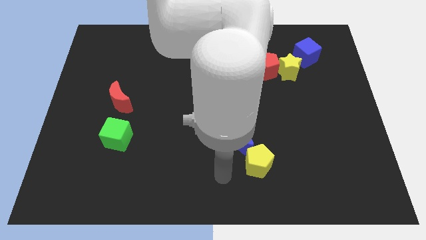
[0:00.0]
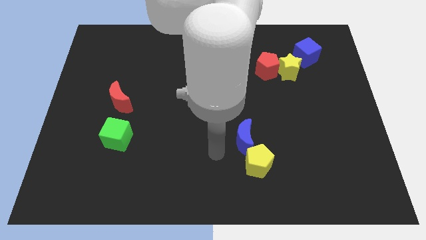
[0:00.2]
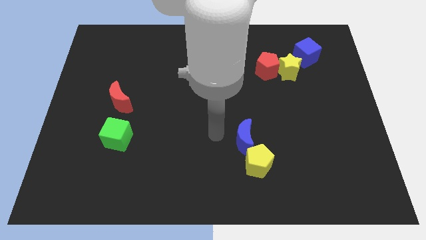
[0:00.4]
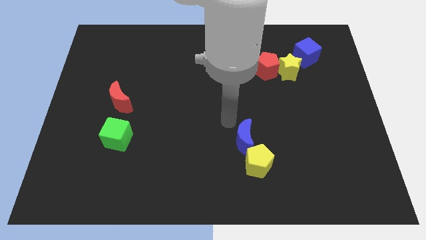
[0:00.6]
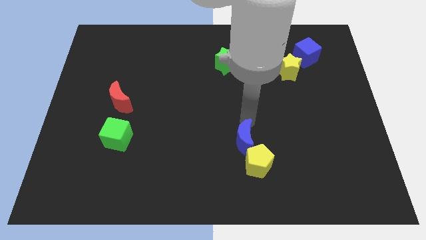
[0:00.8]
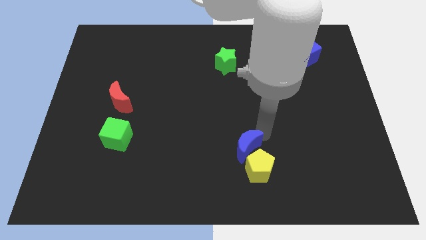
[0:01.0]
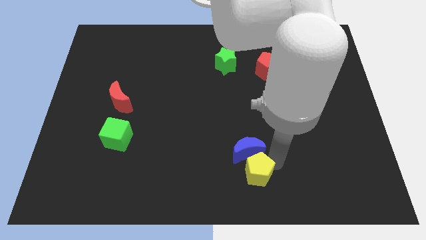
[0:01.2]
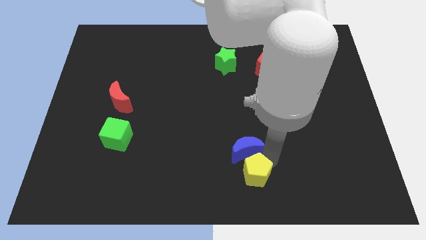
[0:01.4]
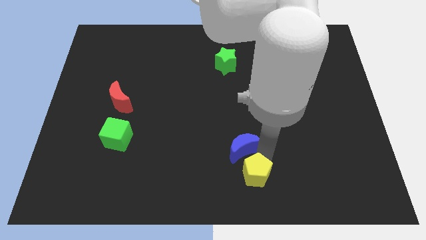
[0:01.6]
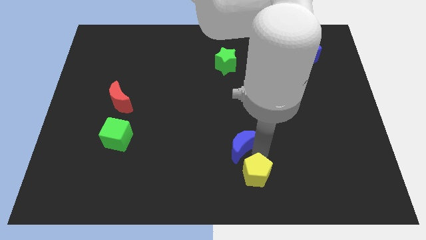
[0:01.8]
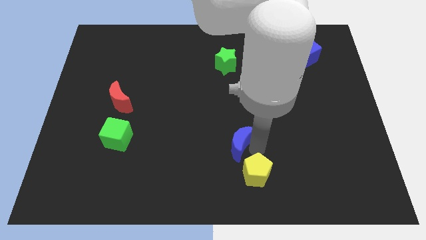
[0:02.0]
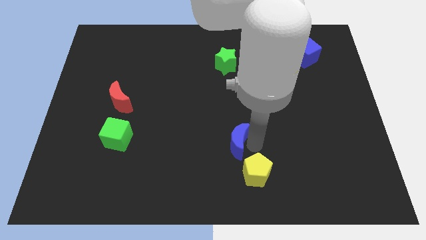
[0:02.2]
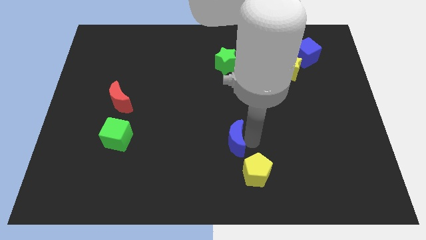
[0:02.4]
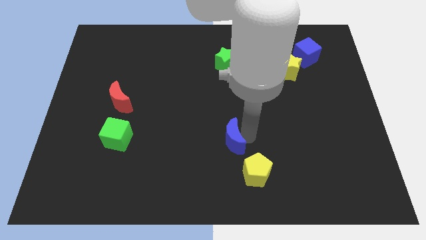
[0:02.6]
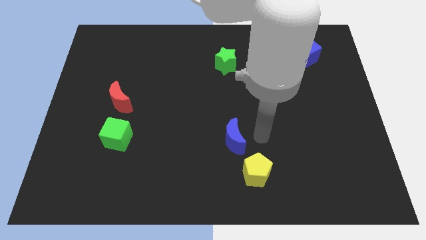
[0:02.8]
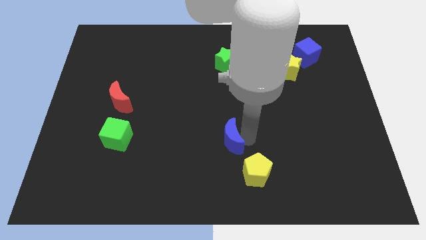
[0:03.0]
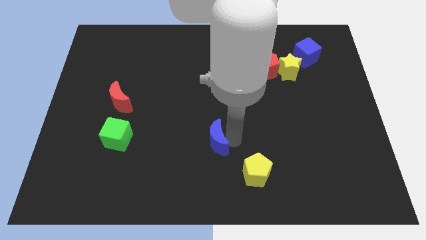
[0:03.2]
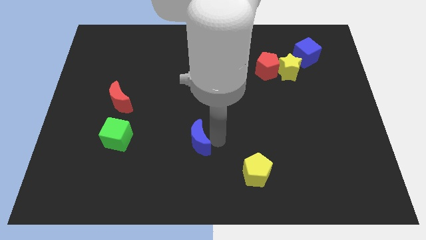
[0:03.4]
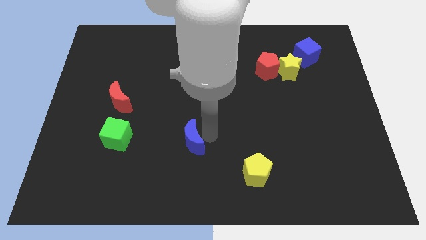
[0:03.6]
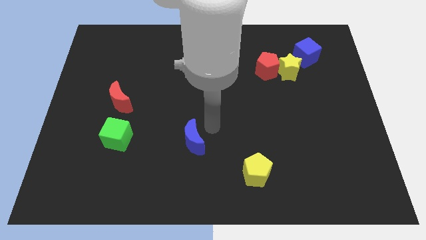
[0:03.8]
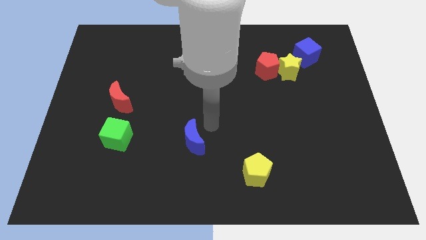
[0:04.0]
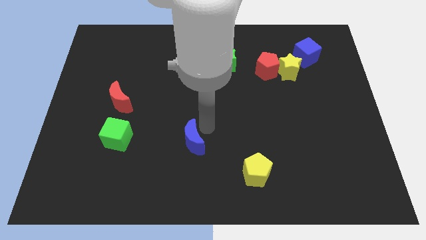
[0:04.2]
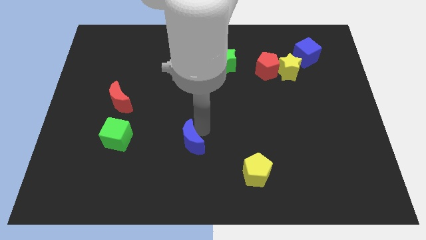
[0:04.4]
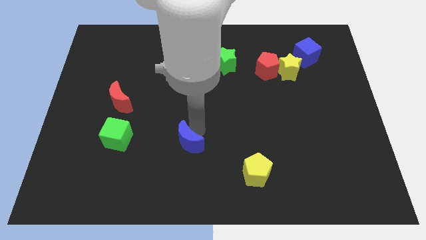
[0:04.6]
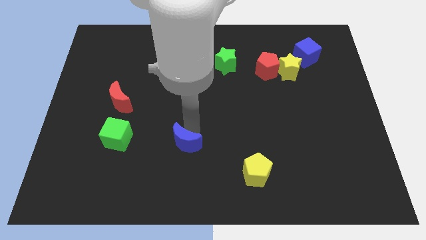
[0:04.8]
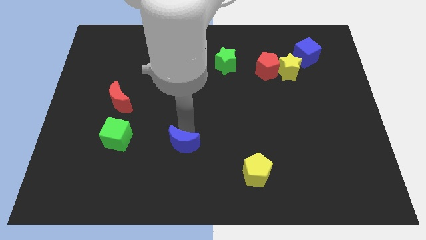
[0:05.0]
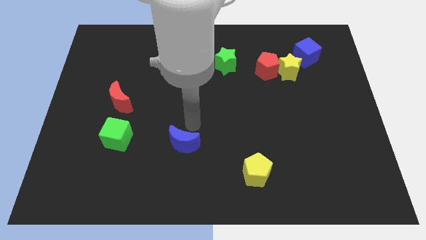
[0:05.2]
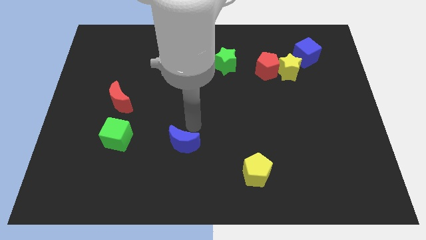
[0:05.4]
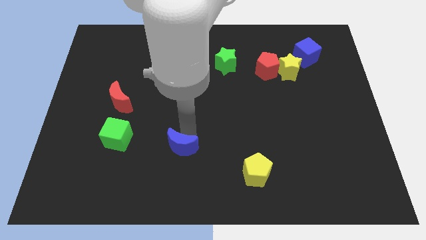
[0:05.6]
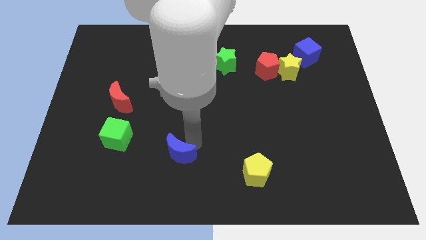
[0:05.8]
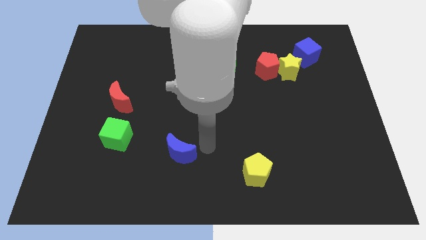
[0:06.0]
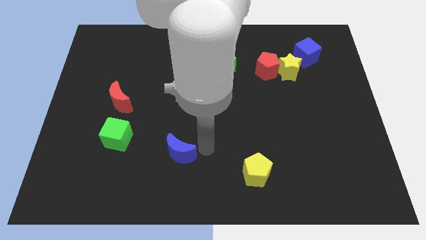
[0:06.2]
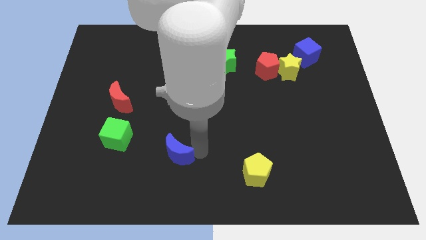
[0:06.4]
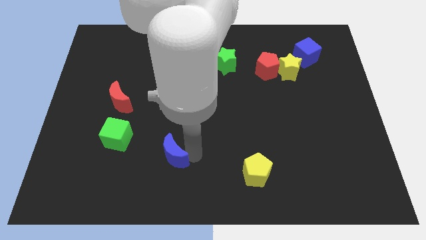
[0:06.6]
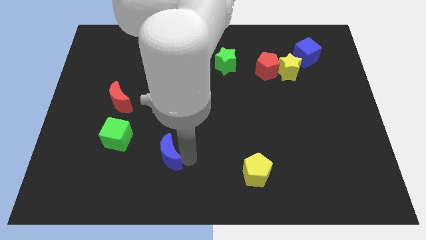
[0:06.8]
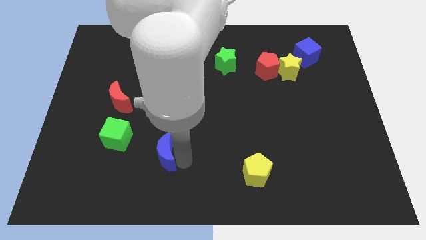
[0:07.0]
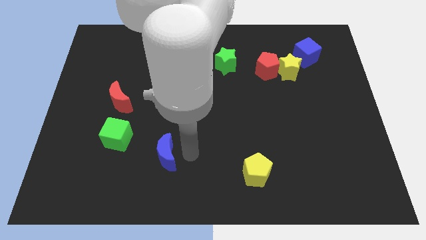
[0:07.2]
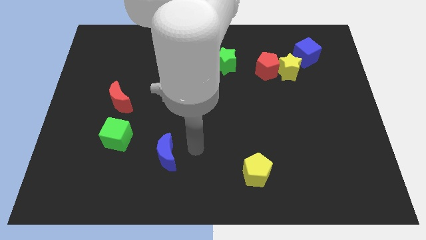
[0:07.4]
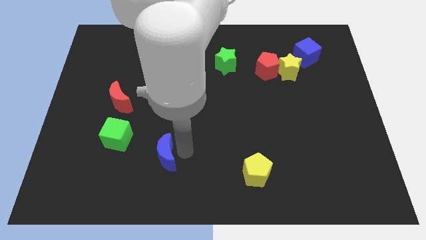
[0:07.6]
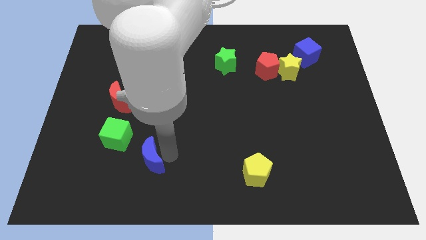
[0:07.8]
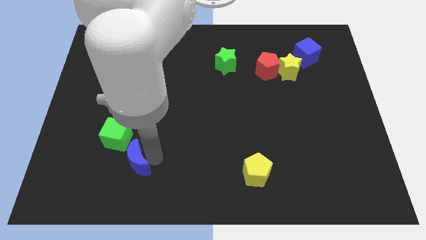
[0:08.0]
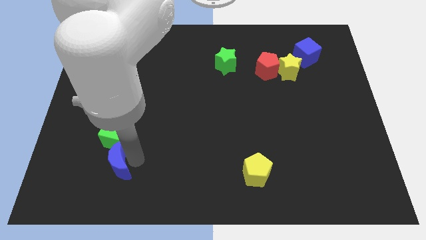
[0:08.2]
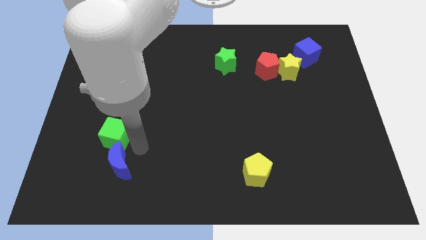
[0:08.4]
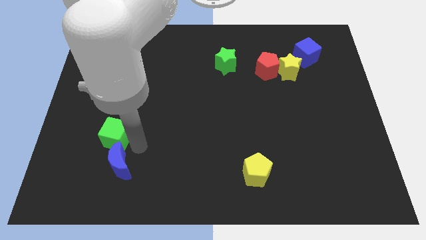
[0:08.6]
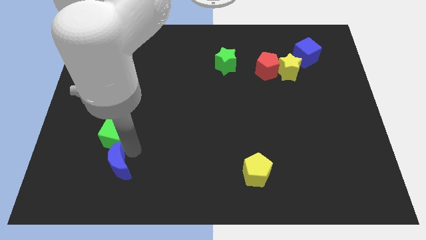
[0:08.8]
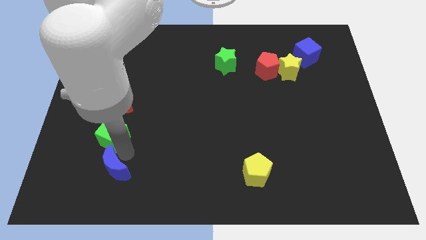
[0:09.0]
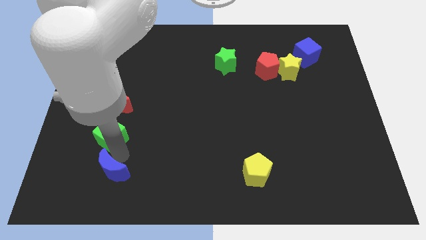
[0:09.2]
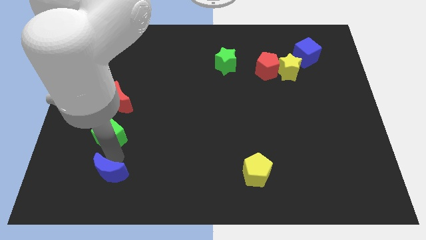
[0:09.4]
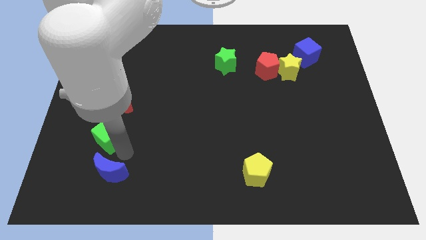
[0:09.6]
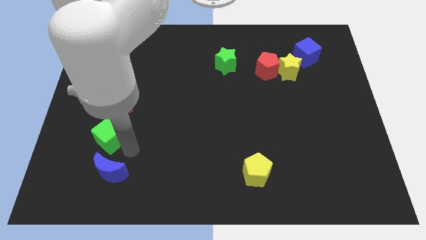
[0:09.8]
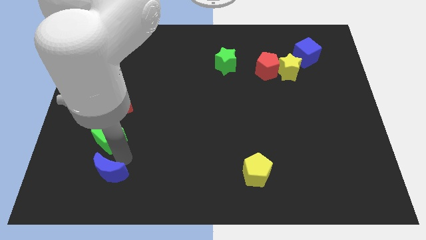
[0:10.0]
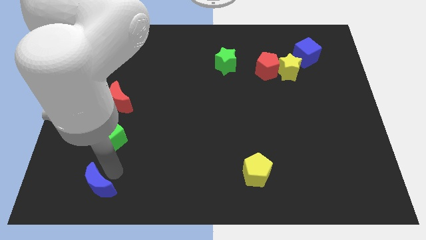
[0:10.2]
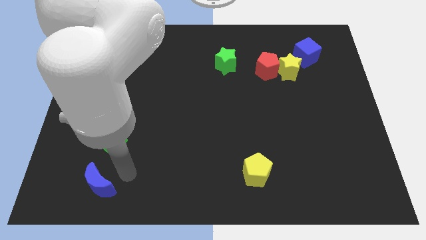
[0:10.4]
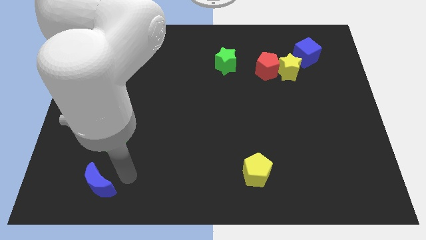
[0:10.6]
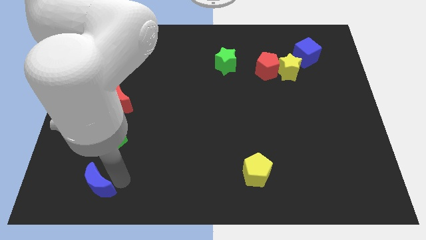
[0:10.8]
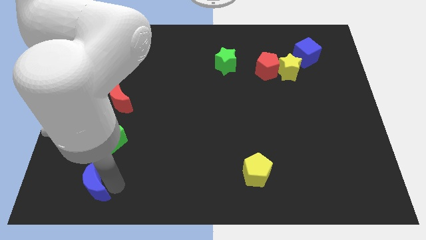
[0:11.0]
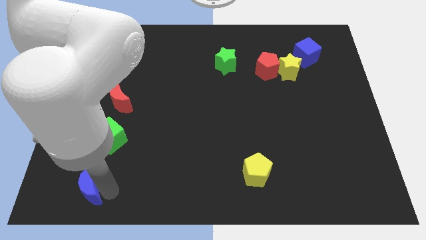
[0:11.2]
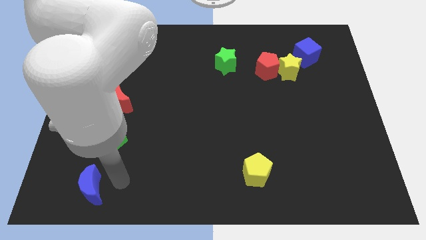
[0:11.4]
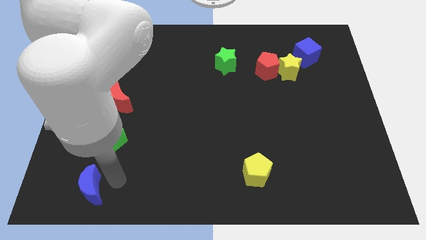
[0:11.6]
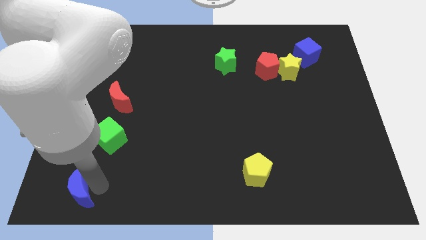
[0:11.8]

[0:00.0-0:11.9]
slide the blue moon to the bottom left

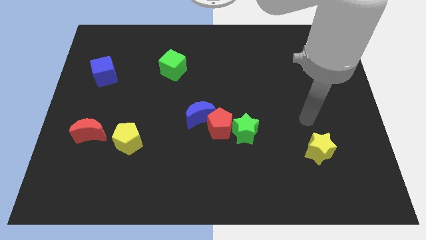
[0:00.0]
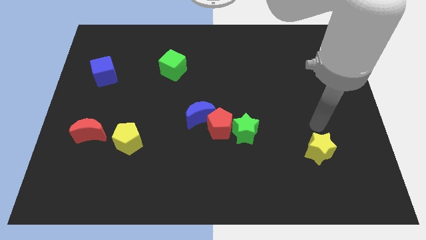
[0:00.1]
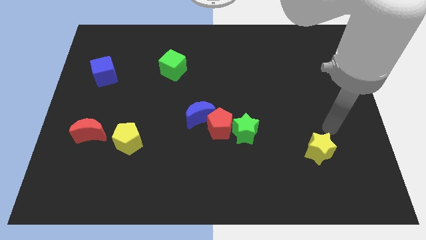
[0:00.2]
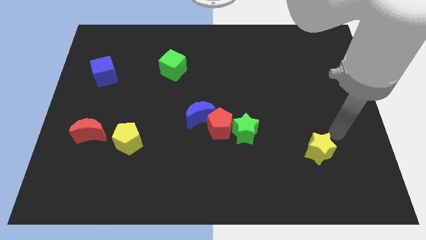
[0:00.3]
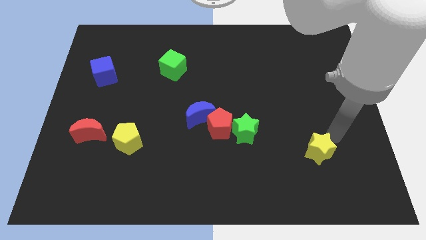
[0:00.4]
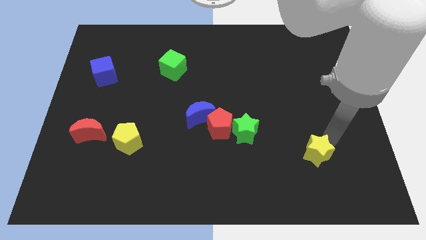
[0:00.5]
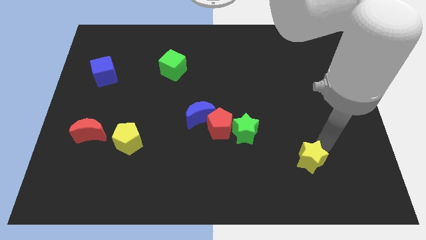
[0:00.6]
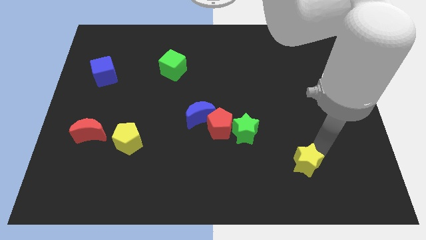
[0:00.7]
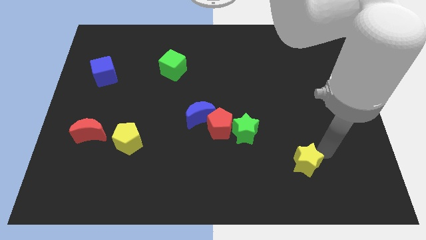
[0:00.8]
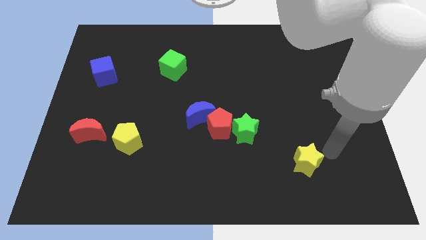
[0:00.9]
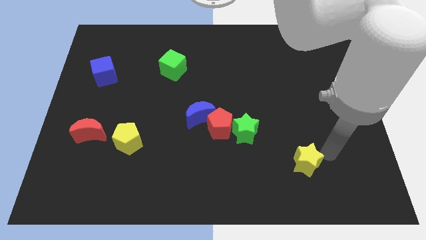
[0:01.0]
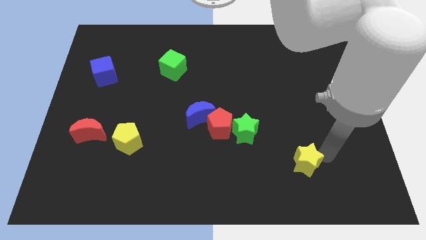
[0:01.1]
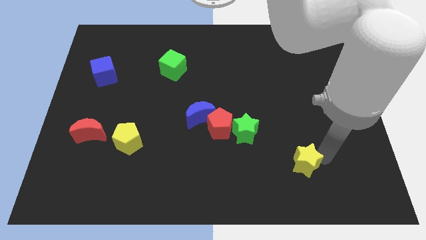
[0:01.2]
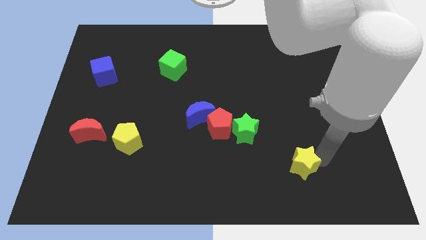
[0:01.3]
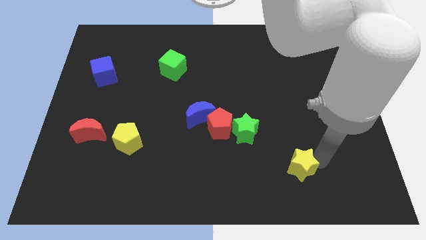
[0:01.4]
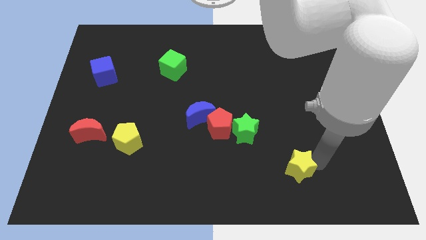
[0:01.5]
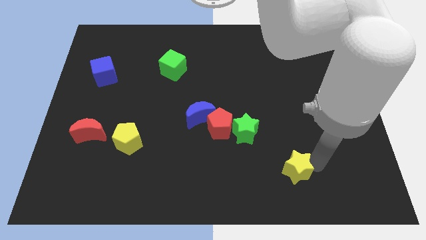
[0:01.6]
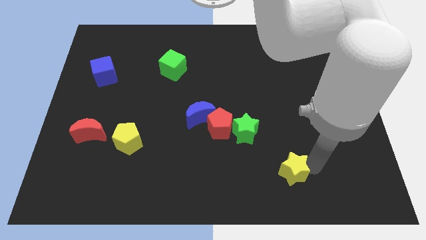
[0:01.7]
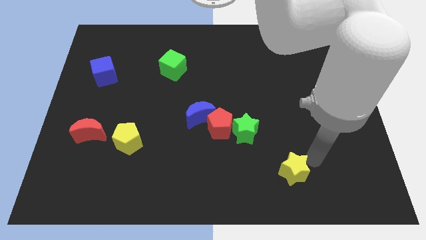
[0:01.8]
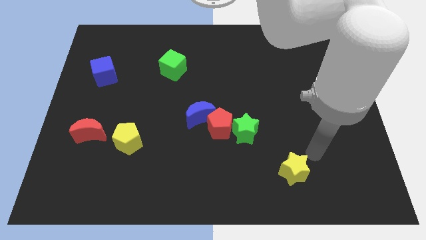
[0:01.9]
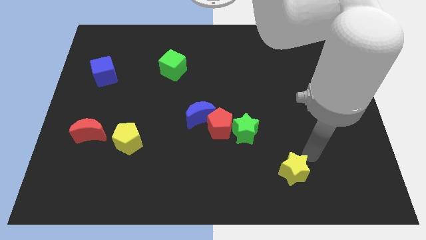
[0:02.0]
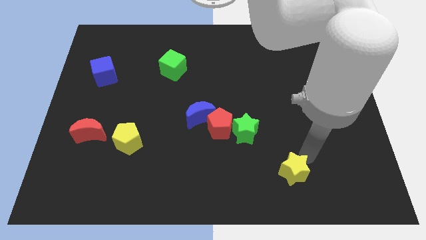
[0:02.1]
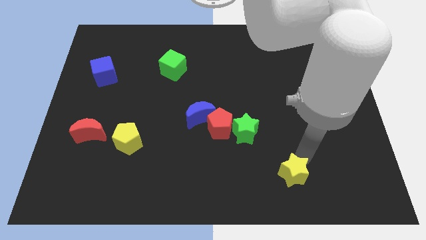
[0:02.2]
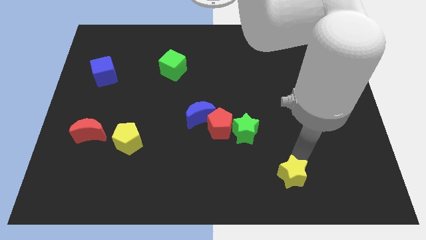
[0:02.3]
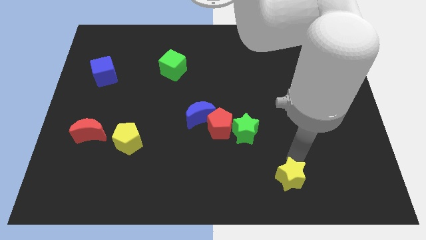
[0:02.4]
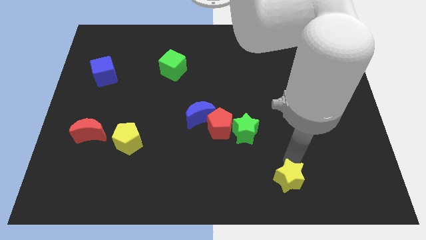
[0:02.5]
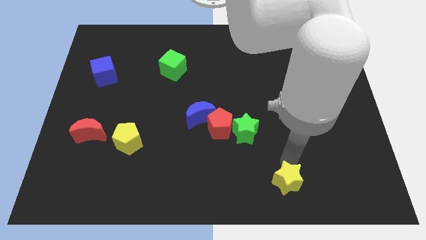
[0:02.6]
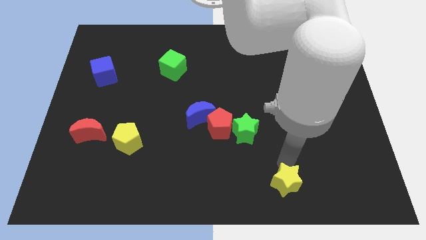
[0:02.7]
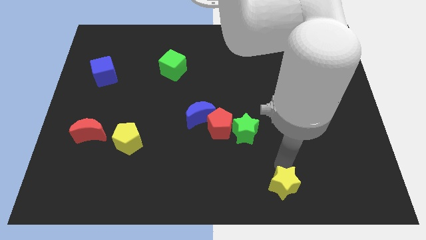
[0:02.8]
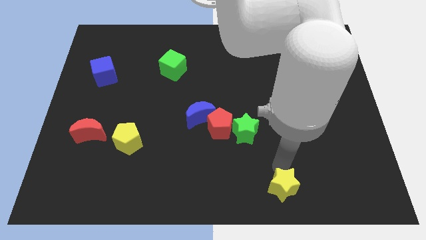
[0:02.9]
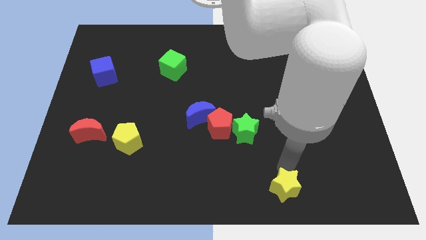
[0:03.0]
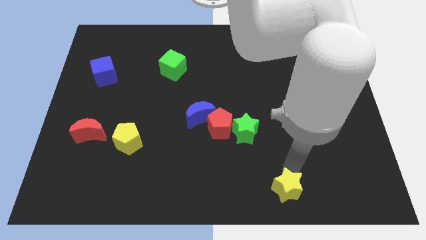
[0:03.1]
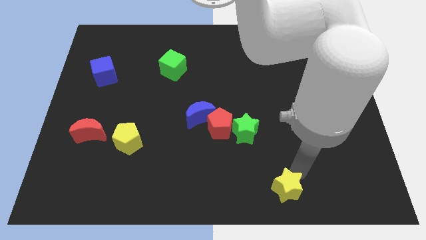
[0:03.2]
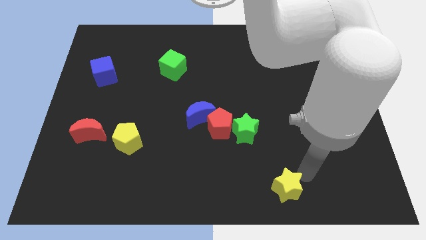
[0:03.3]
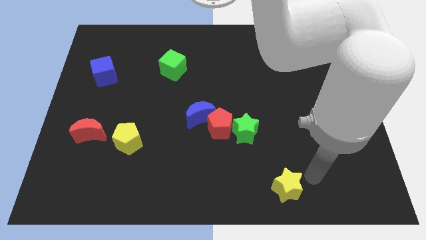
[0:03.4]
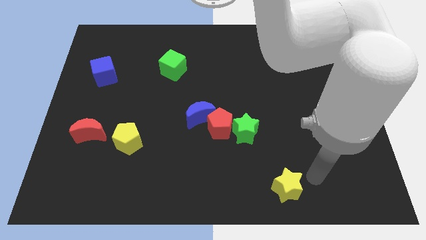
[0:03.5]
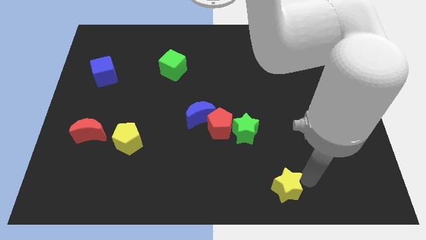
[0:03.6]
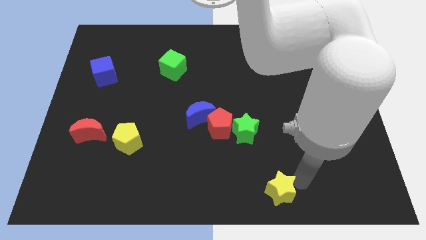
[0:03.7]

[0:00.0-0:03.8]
move the yellow star to the bottom side
